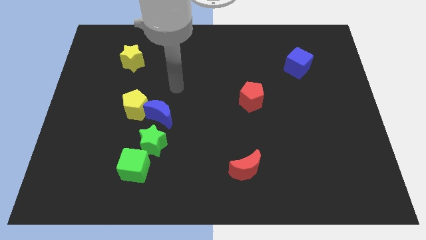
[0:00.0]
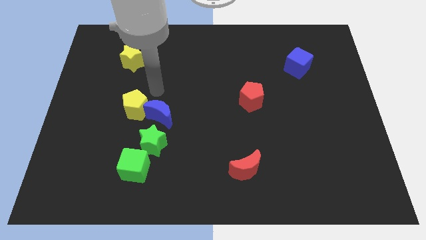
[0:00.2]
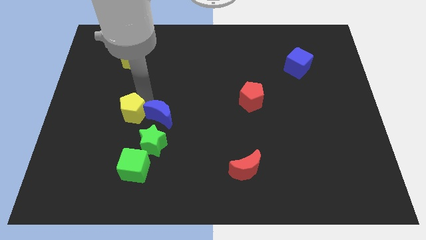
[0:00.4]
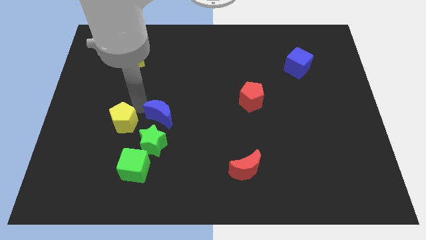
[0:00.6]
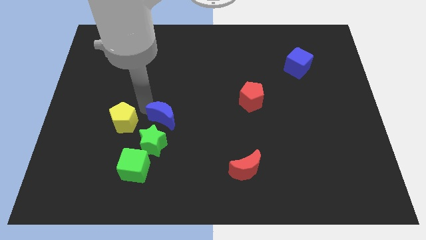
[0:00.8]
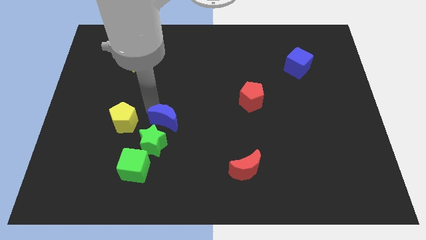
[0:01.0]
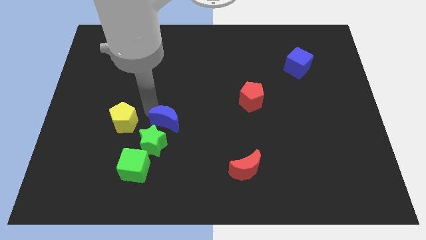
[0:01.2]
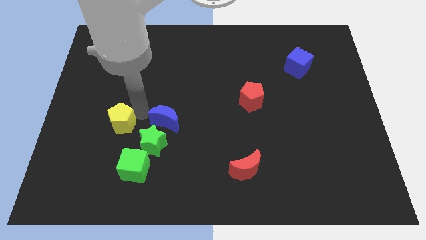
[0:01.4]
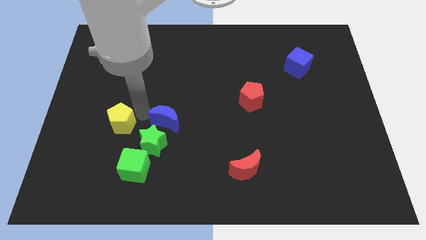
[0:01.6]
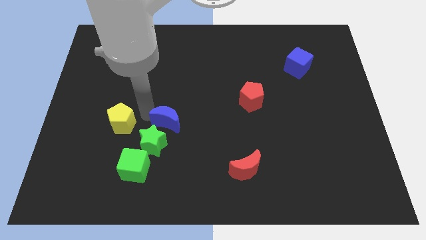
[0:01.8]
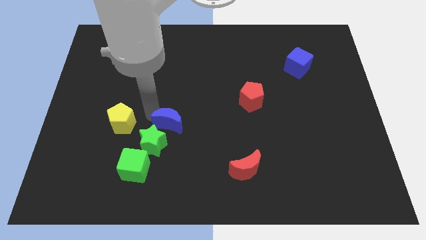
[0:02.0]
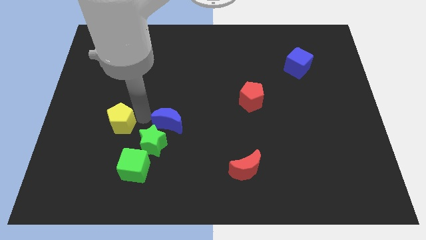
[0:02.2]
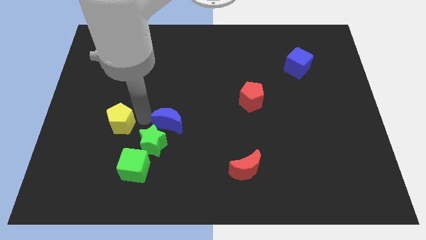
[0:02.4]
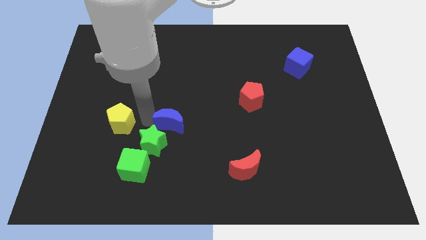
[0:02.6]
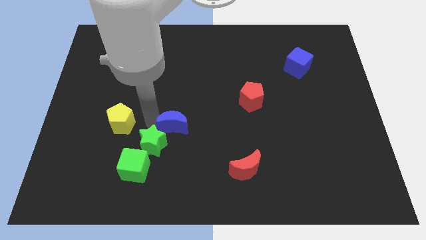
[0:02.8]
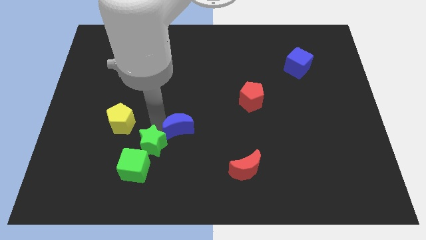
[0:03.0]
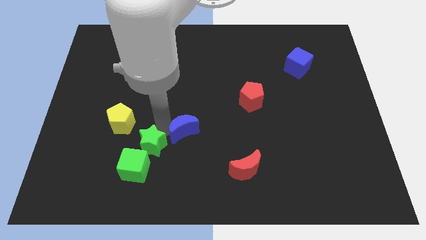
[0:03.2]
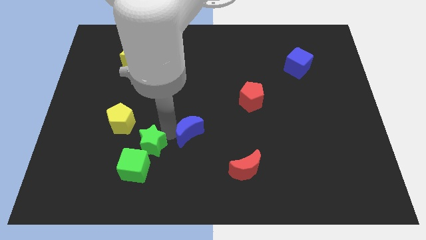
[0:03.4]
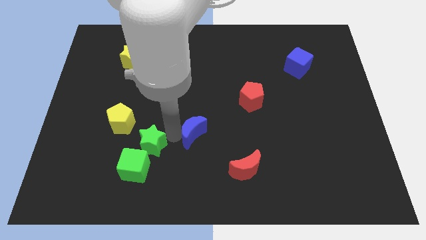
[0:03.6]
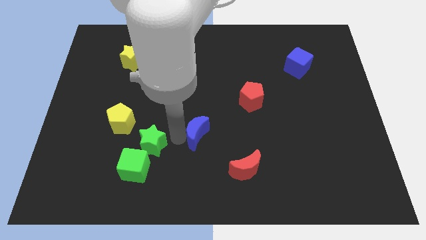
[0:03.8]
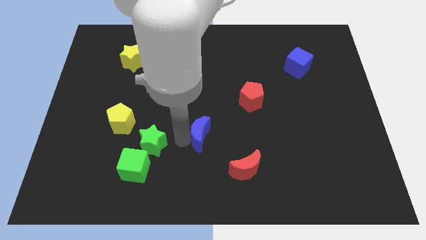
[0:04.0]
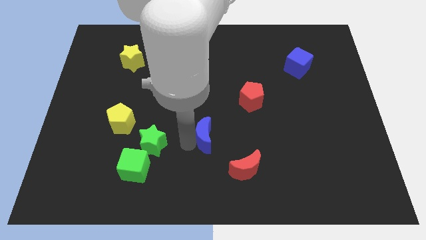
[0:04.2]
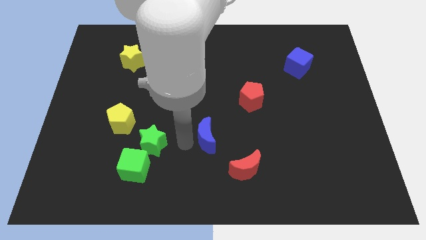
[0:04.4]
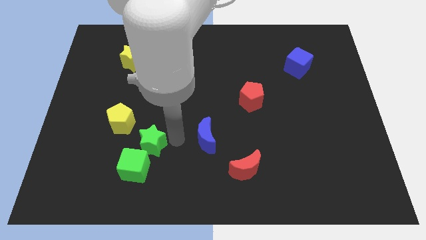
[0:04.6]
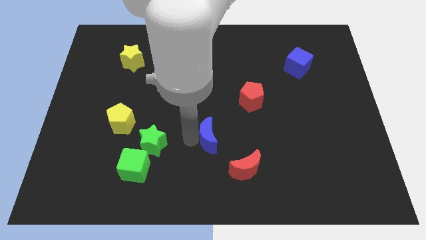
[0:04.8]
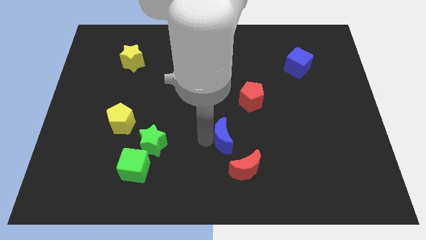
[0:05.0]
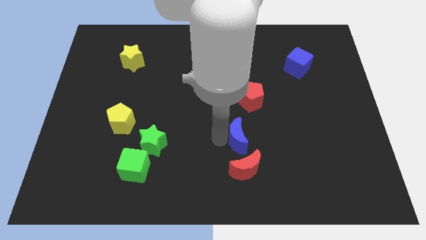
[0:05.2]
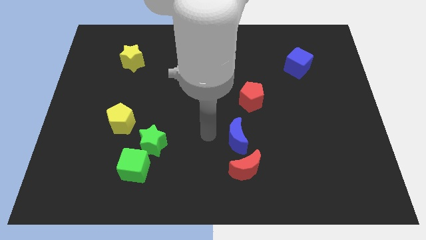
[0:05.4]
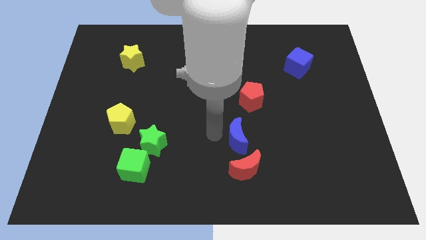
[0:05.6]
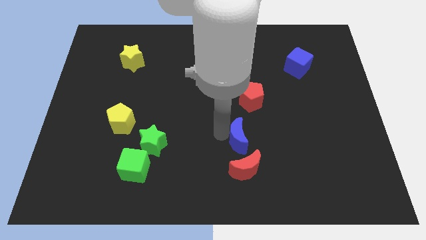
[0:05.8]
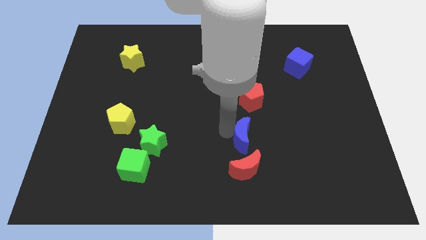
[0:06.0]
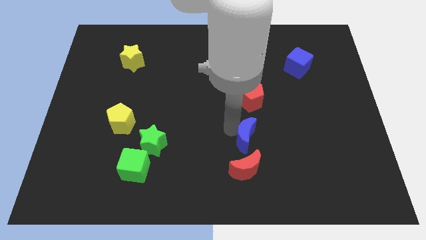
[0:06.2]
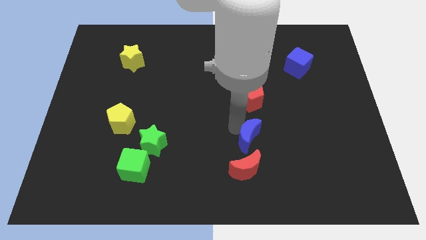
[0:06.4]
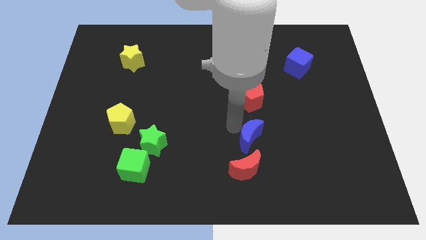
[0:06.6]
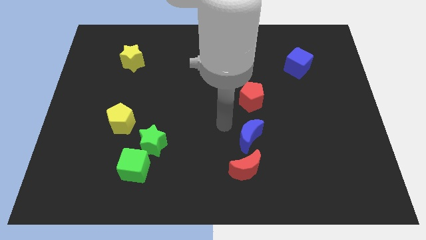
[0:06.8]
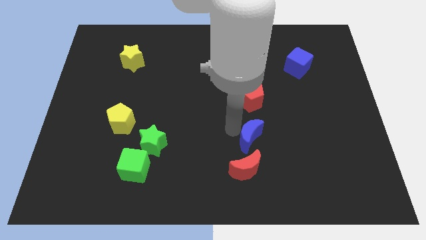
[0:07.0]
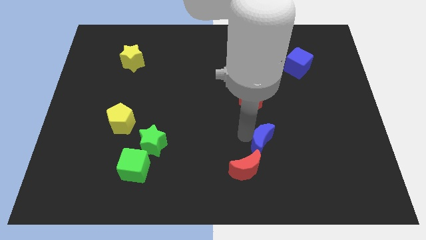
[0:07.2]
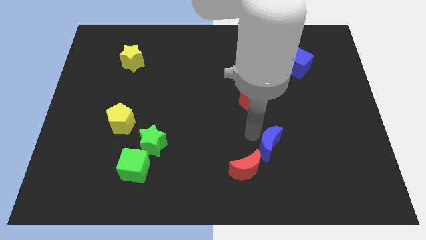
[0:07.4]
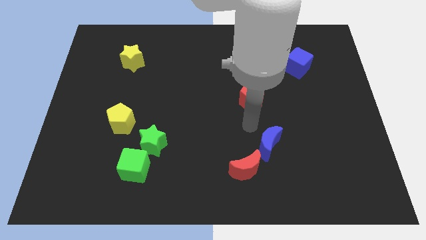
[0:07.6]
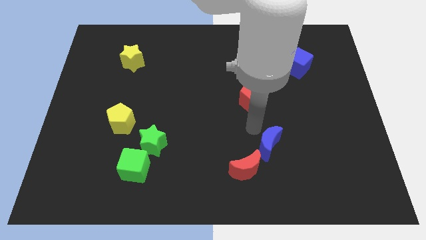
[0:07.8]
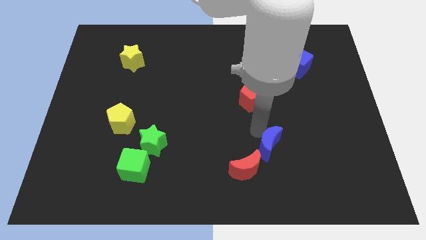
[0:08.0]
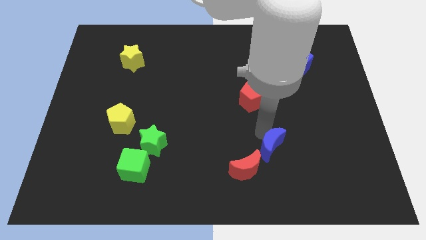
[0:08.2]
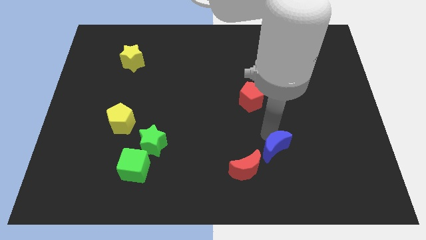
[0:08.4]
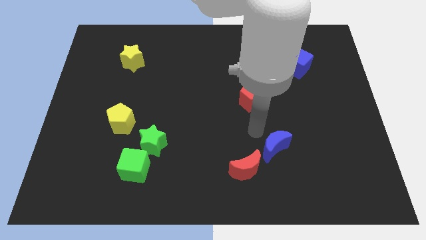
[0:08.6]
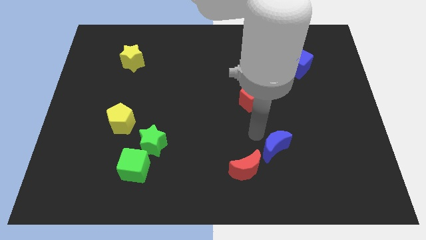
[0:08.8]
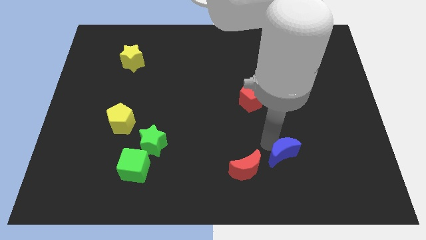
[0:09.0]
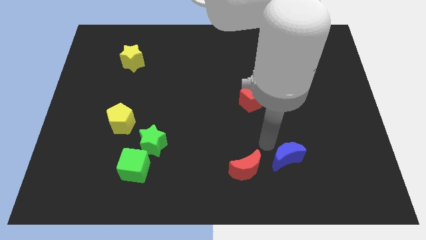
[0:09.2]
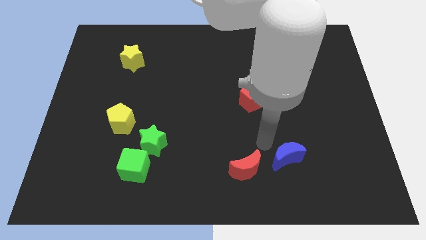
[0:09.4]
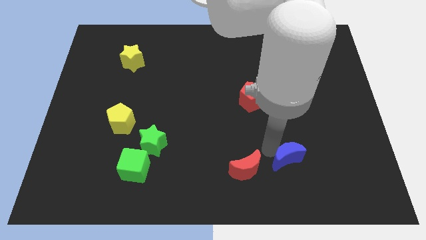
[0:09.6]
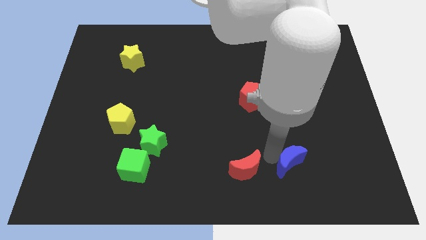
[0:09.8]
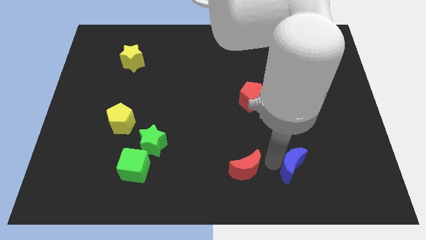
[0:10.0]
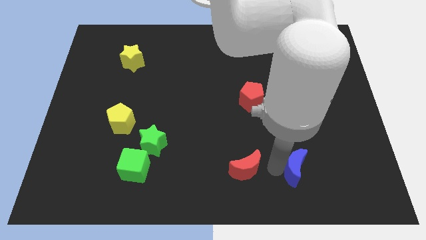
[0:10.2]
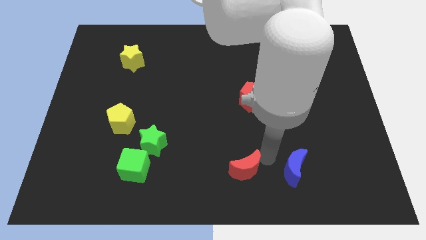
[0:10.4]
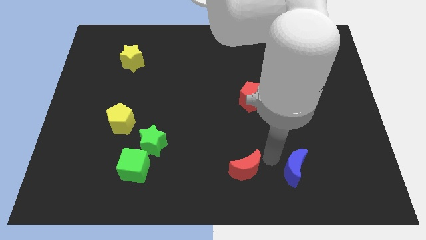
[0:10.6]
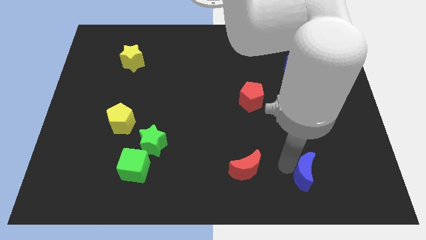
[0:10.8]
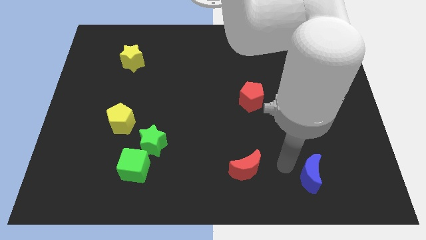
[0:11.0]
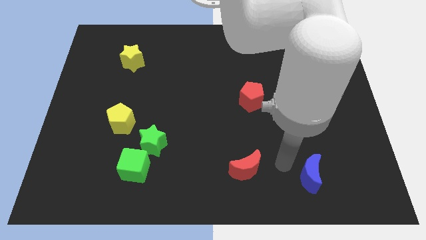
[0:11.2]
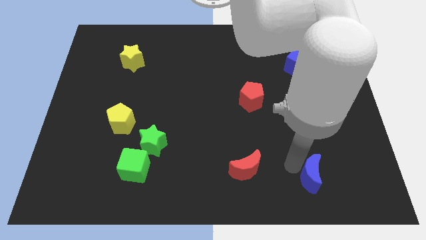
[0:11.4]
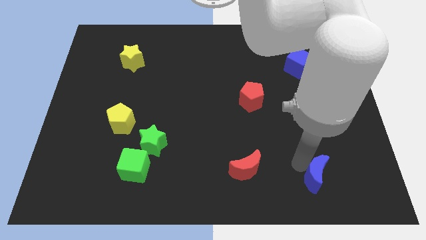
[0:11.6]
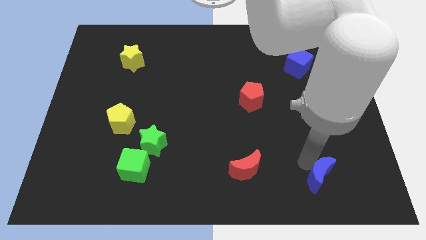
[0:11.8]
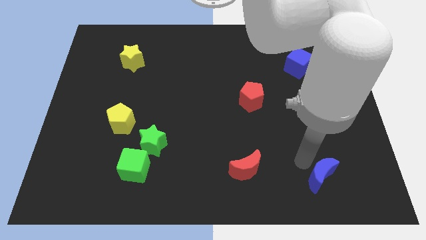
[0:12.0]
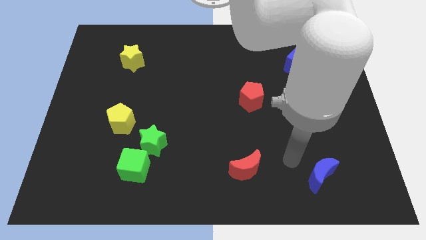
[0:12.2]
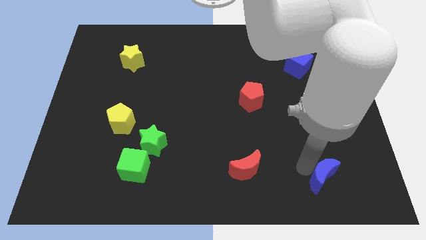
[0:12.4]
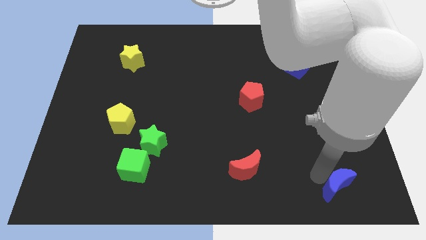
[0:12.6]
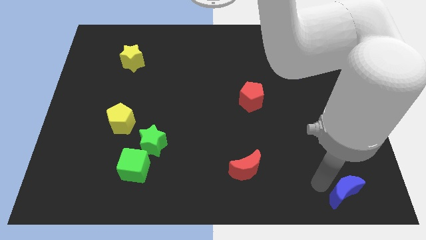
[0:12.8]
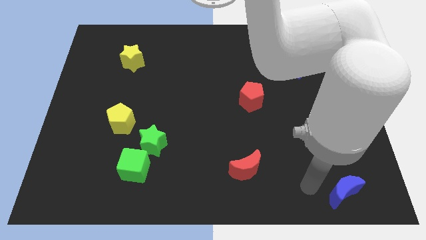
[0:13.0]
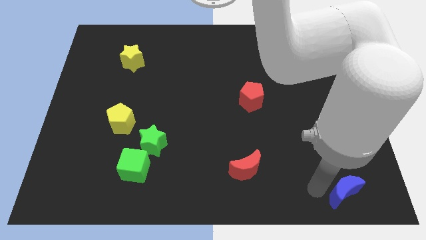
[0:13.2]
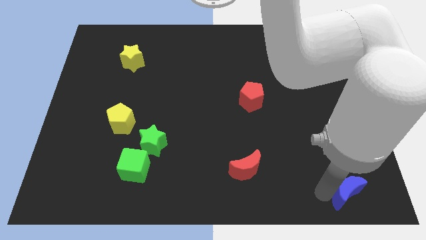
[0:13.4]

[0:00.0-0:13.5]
put the blue moon to the bottom right of the board
